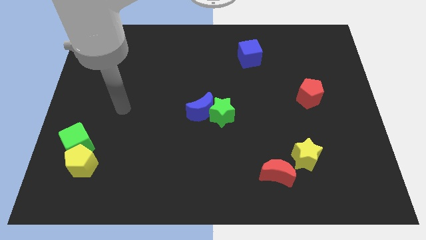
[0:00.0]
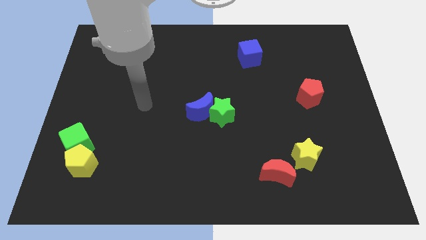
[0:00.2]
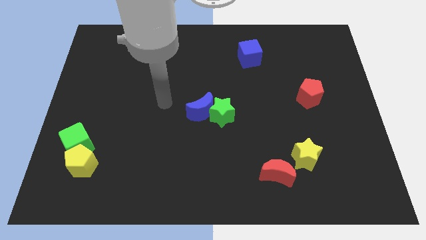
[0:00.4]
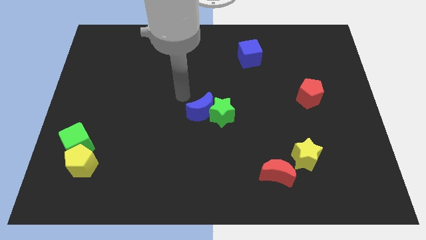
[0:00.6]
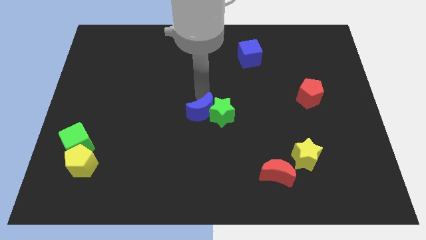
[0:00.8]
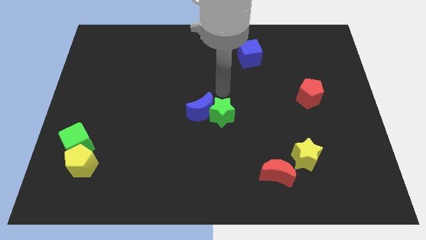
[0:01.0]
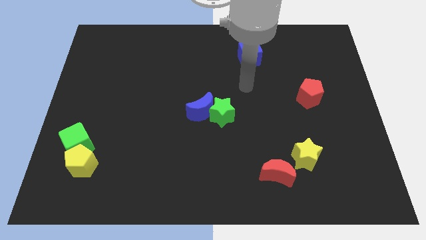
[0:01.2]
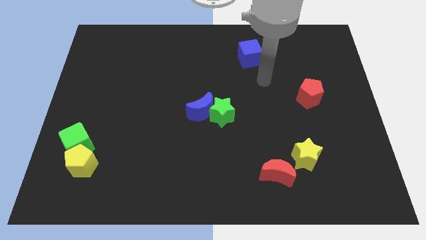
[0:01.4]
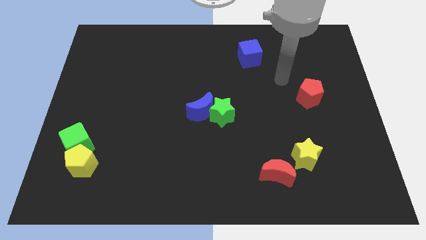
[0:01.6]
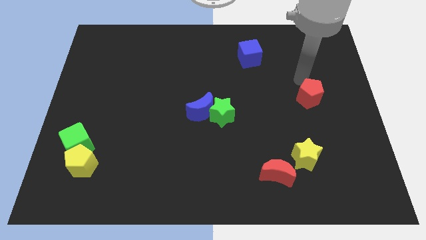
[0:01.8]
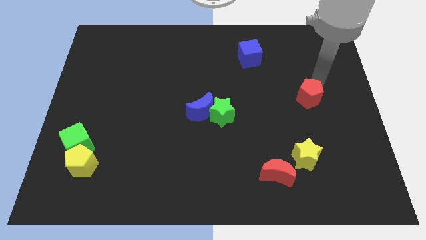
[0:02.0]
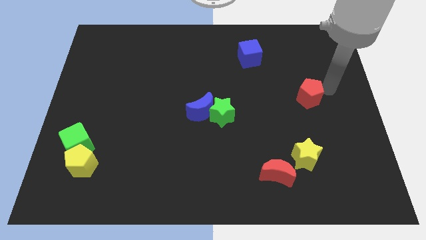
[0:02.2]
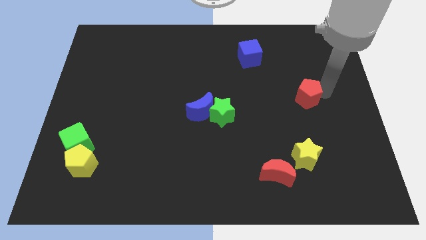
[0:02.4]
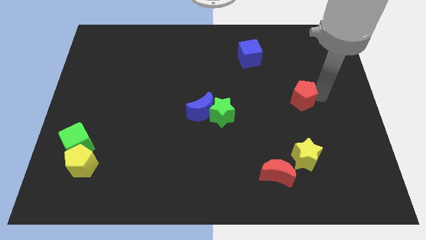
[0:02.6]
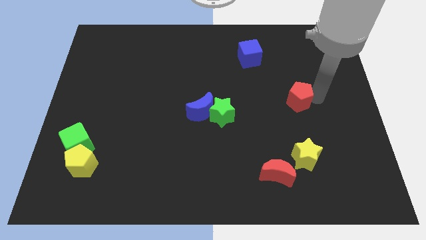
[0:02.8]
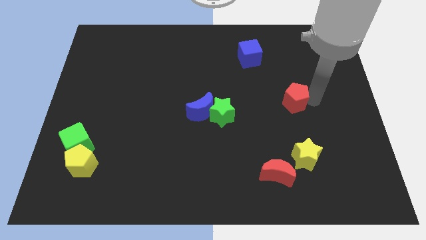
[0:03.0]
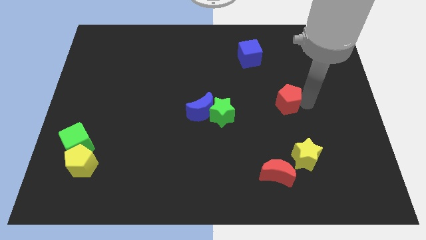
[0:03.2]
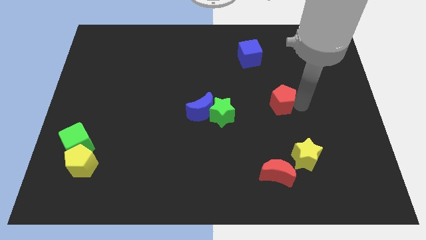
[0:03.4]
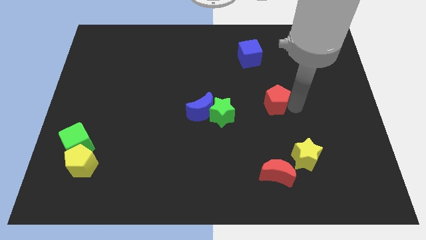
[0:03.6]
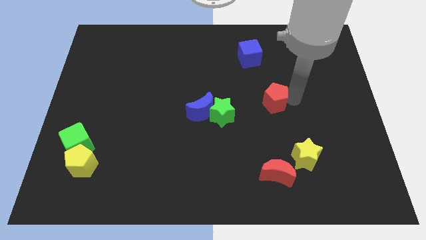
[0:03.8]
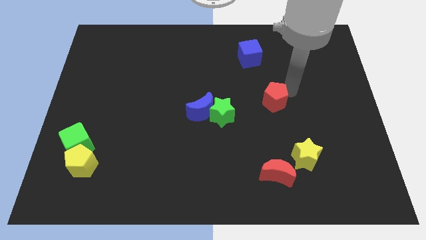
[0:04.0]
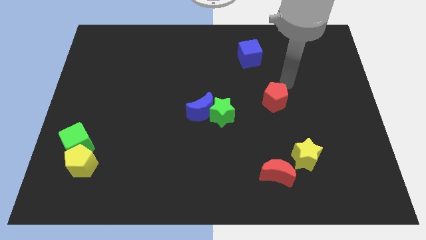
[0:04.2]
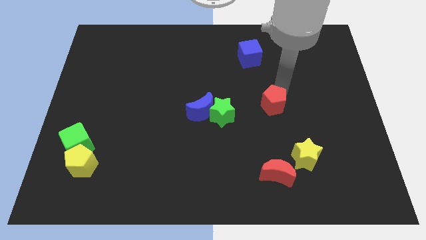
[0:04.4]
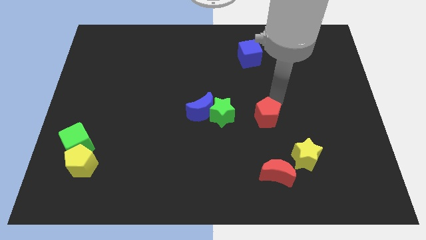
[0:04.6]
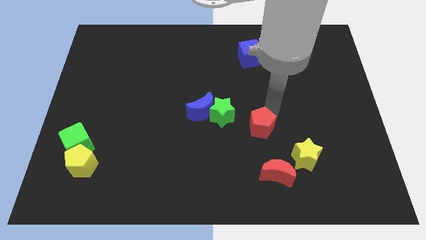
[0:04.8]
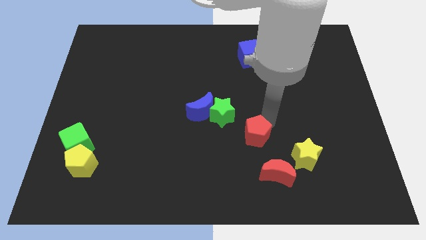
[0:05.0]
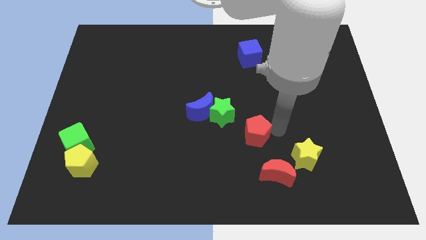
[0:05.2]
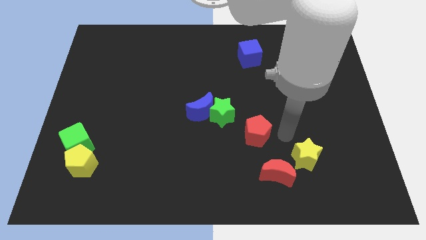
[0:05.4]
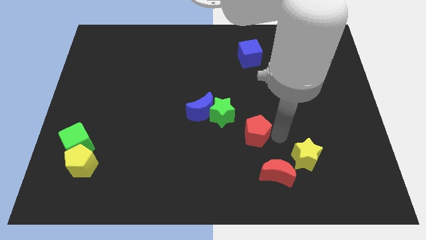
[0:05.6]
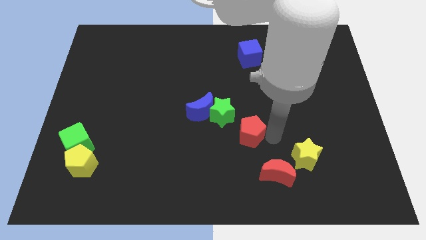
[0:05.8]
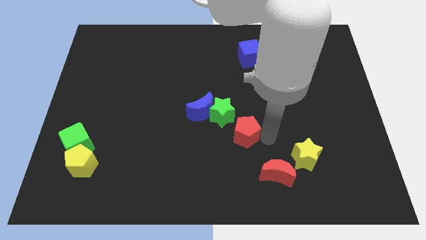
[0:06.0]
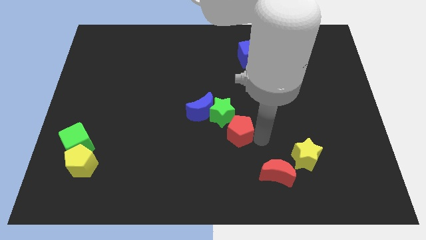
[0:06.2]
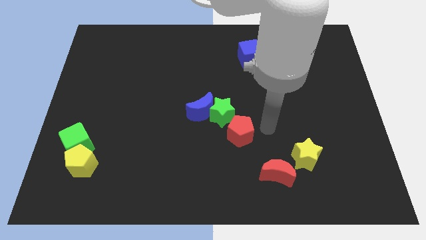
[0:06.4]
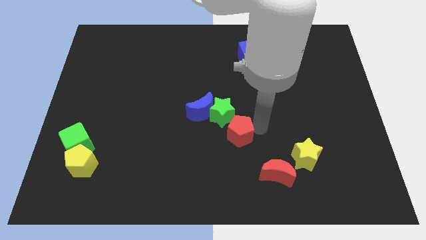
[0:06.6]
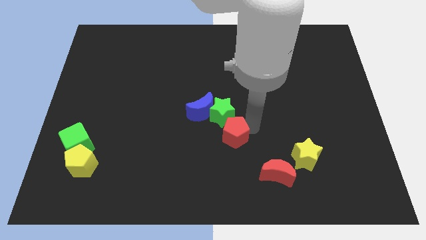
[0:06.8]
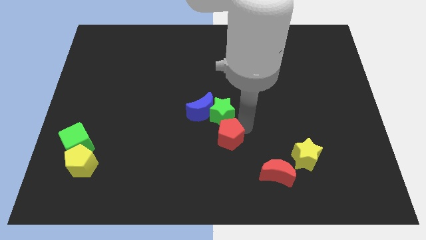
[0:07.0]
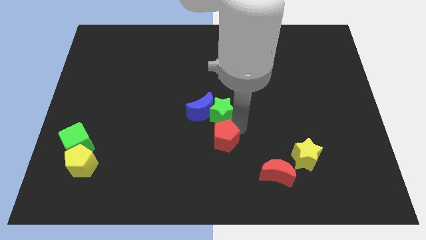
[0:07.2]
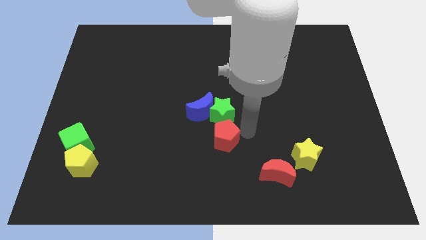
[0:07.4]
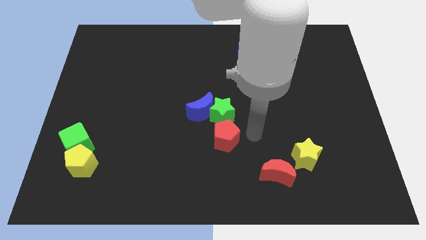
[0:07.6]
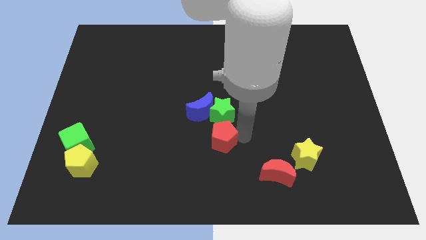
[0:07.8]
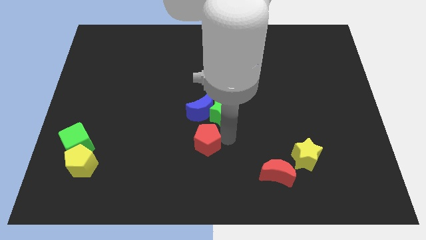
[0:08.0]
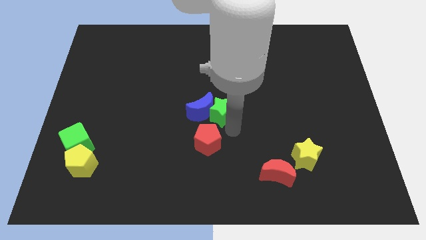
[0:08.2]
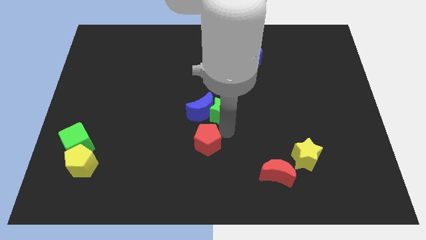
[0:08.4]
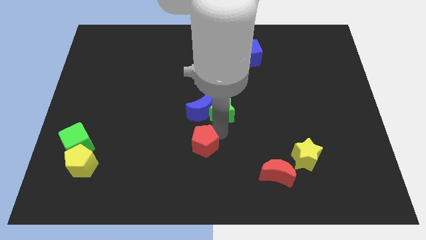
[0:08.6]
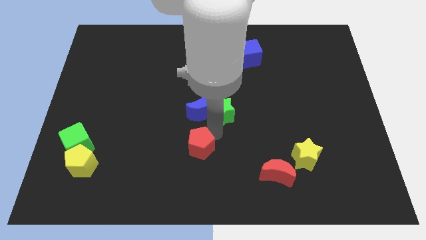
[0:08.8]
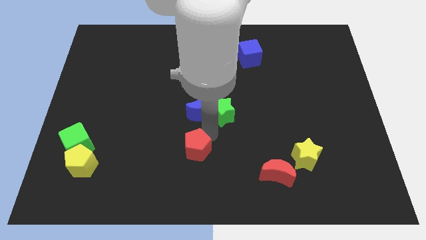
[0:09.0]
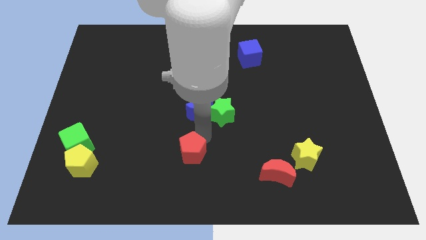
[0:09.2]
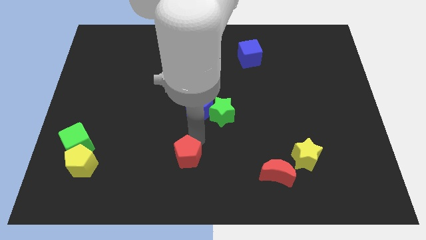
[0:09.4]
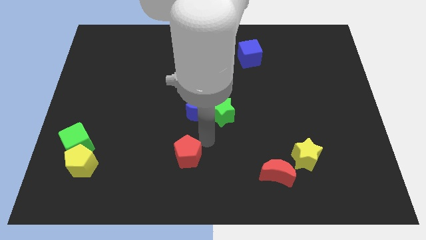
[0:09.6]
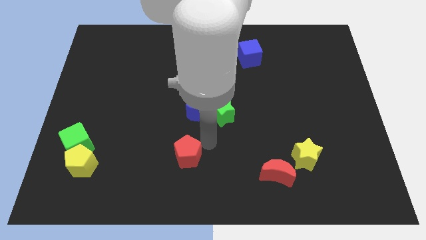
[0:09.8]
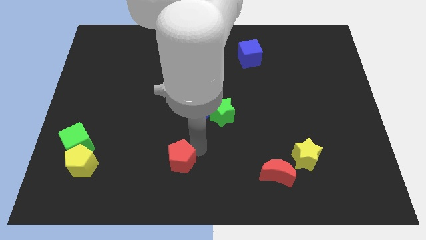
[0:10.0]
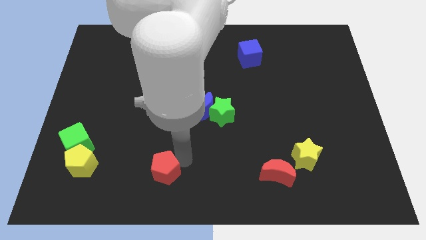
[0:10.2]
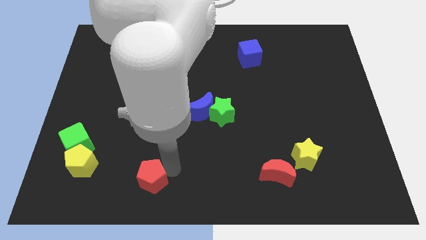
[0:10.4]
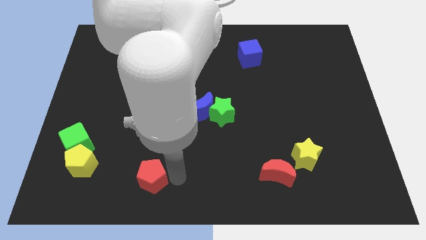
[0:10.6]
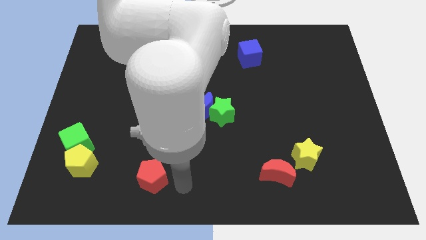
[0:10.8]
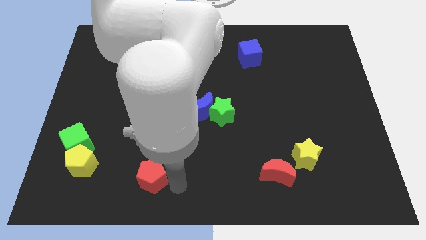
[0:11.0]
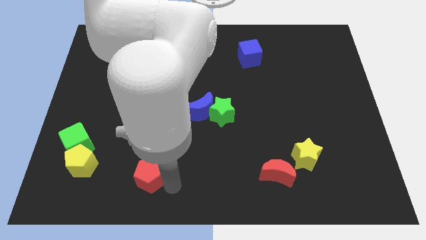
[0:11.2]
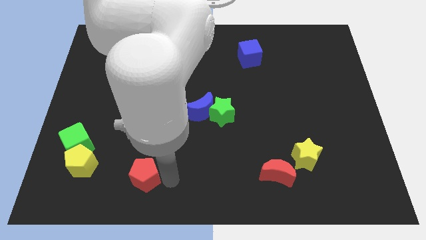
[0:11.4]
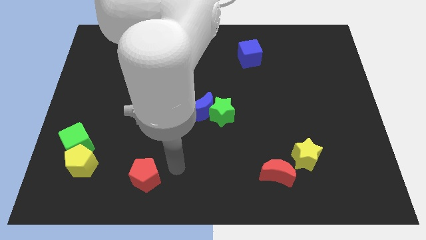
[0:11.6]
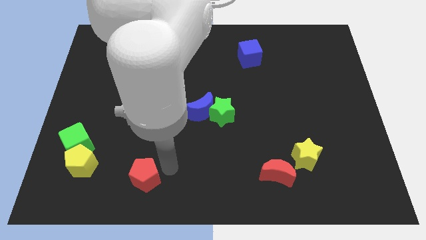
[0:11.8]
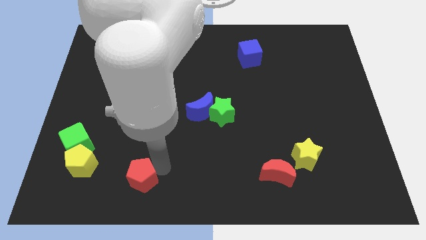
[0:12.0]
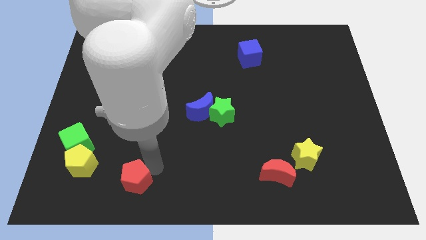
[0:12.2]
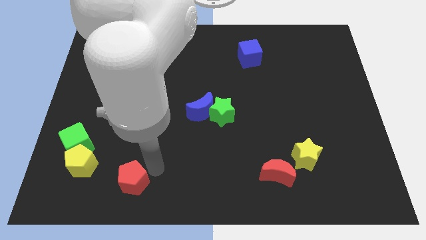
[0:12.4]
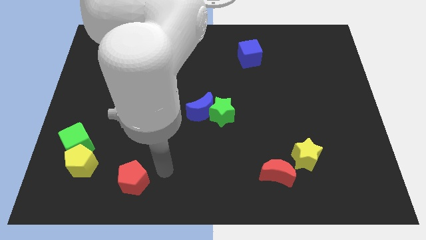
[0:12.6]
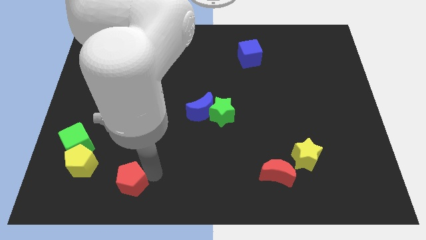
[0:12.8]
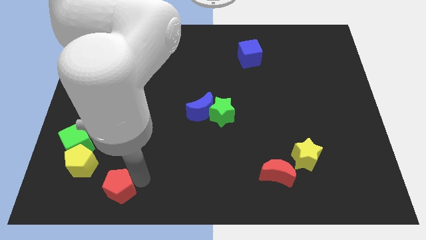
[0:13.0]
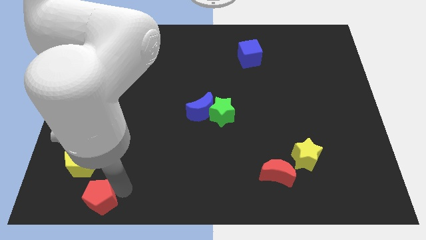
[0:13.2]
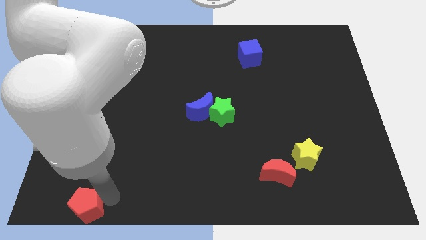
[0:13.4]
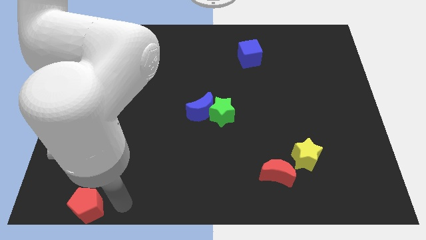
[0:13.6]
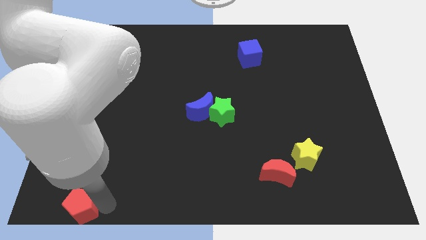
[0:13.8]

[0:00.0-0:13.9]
slide the red pentagon to the bottom left corner
